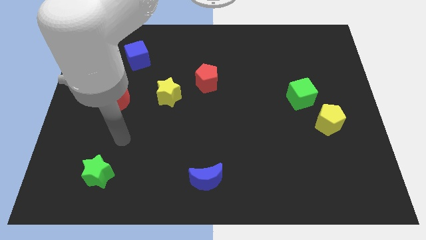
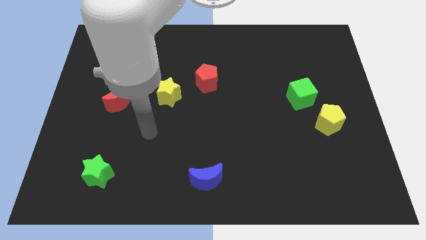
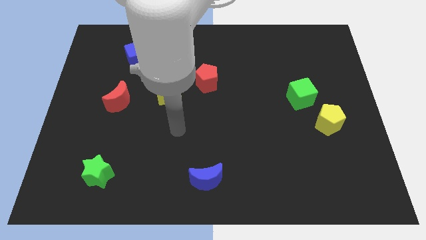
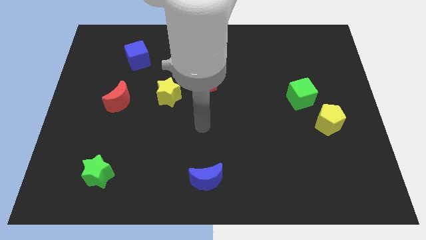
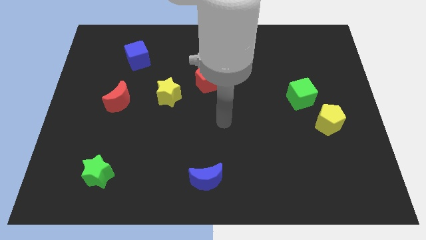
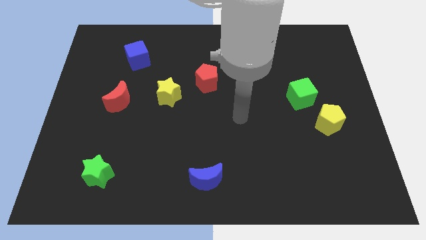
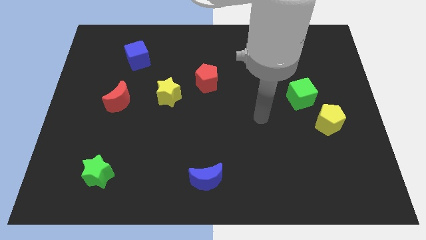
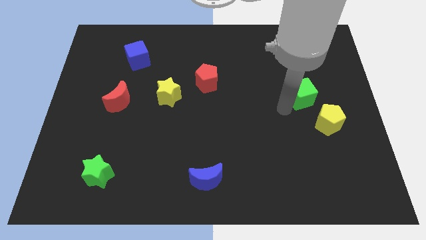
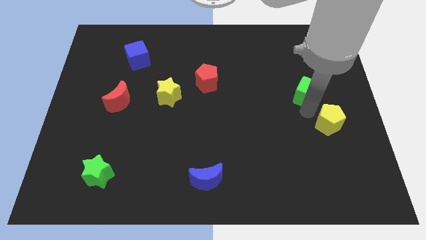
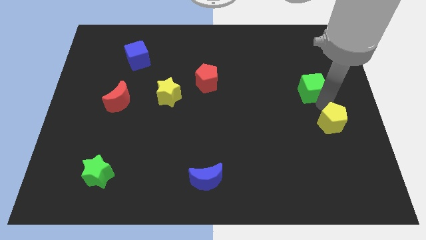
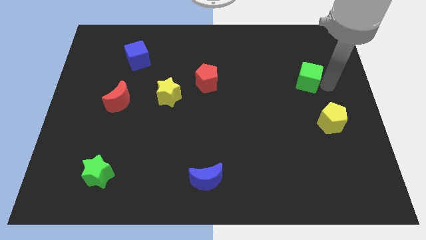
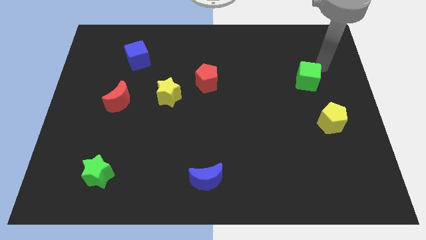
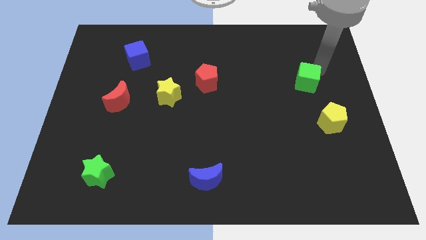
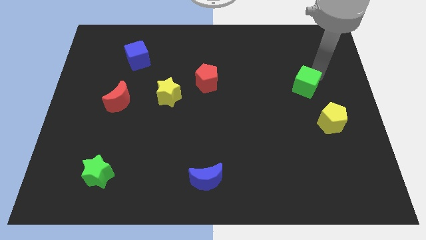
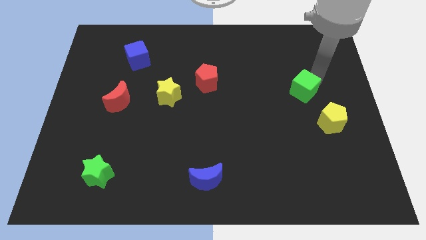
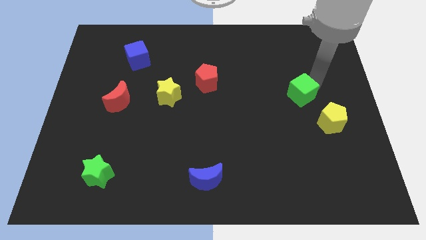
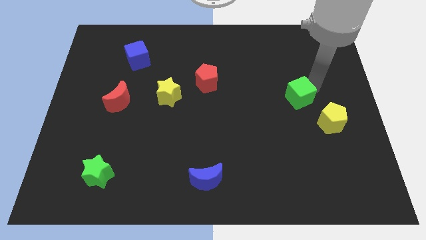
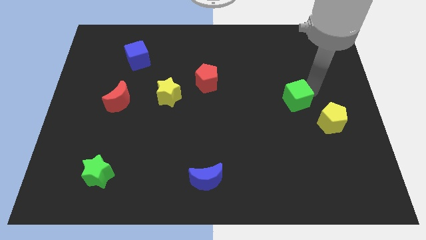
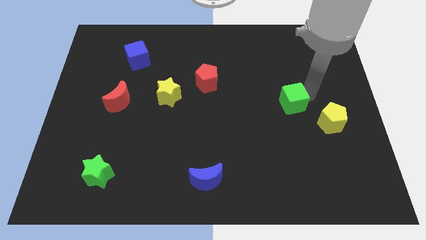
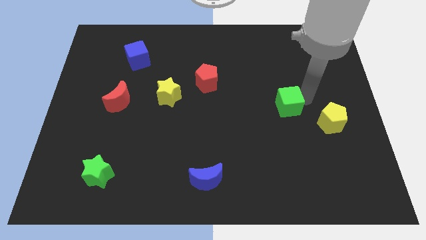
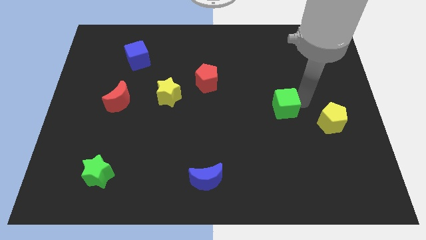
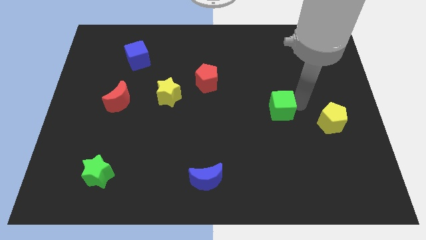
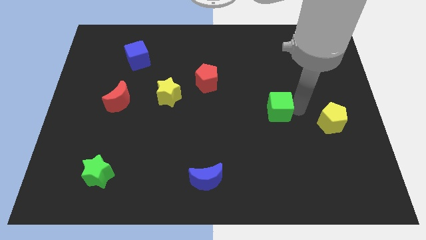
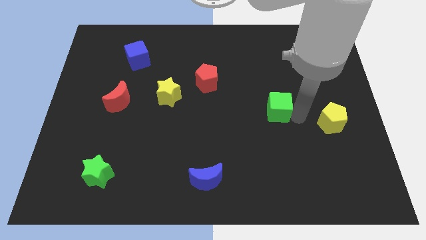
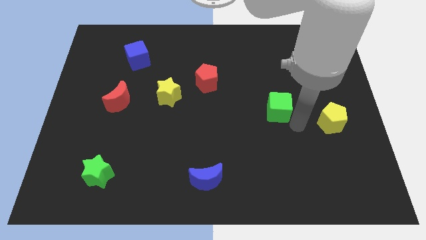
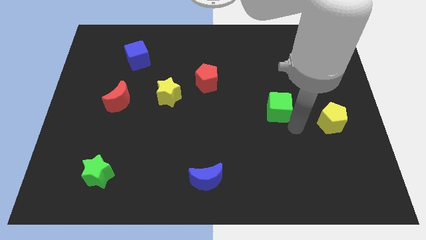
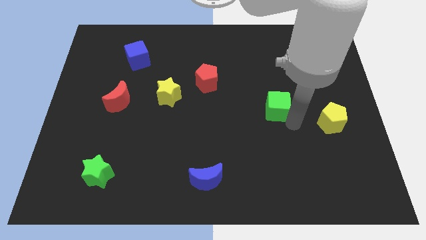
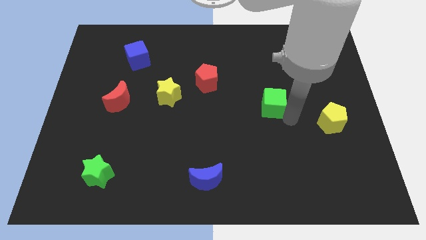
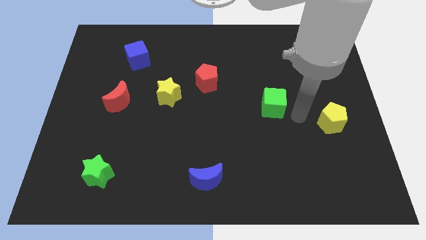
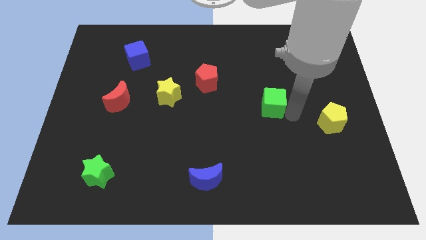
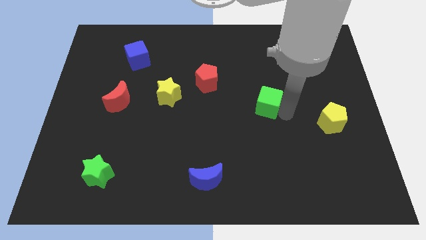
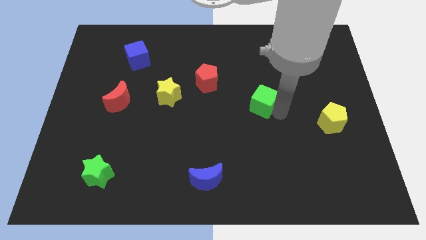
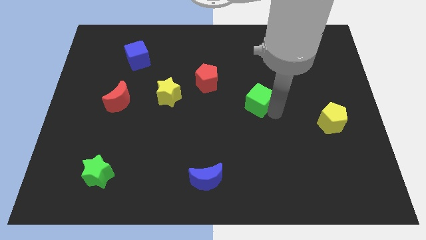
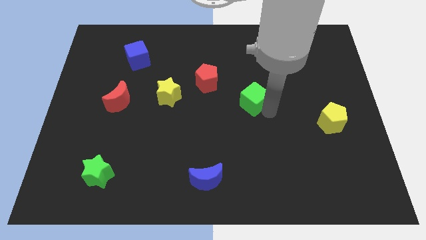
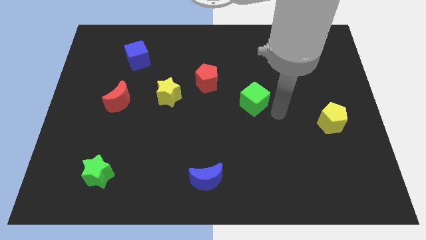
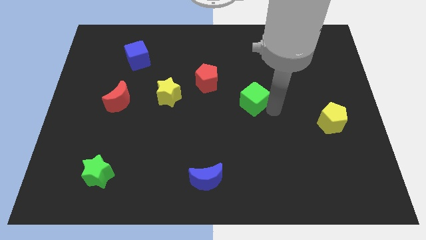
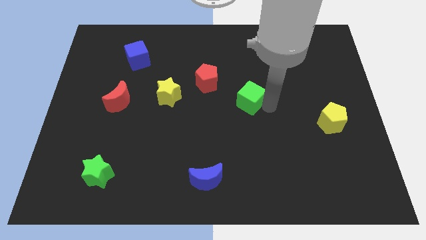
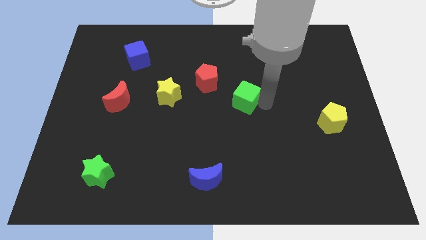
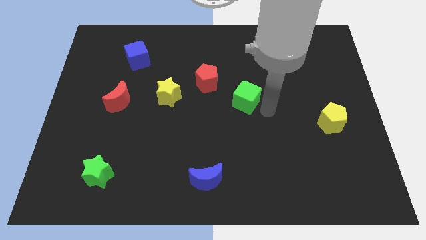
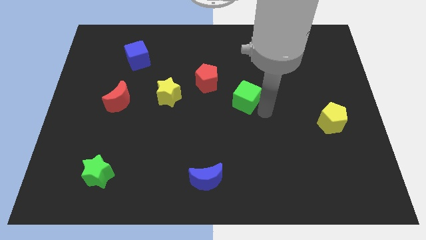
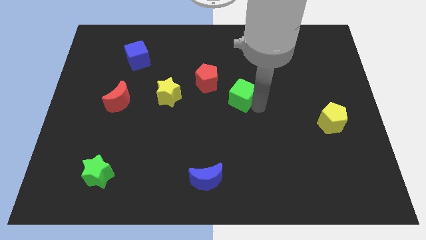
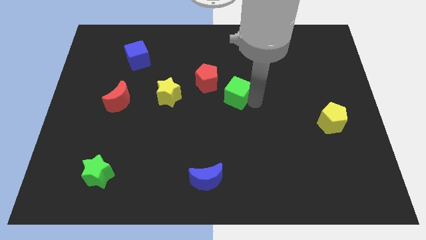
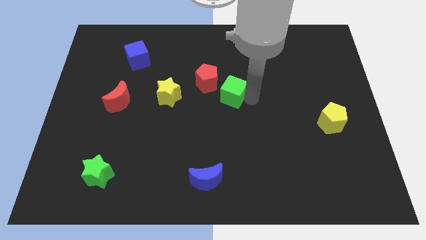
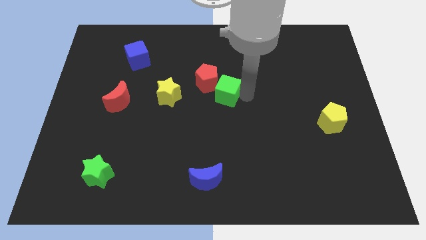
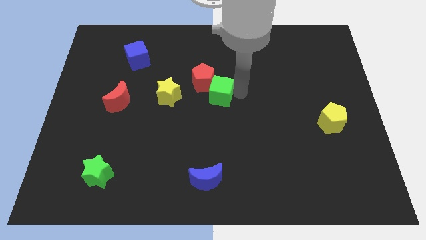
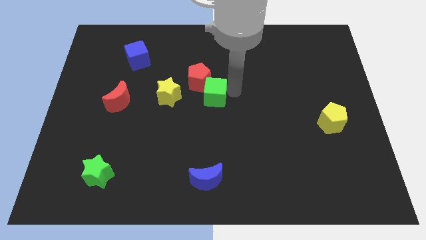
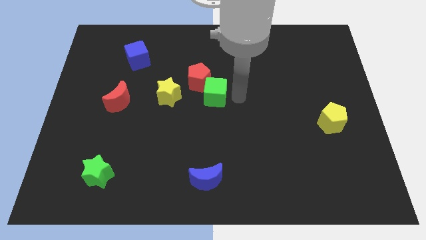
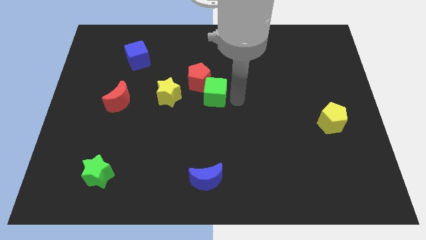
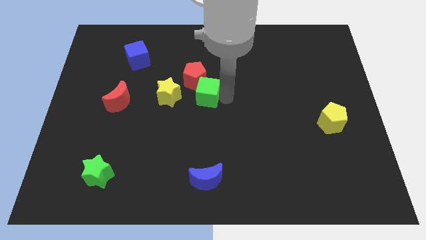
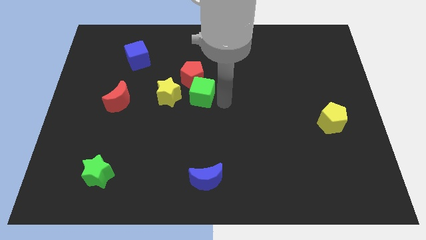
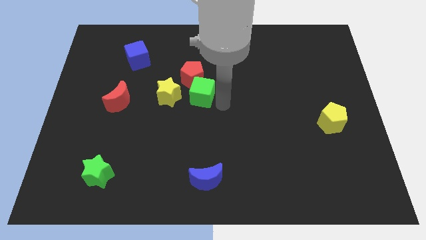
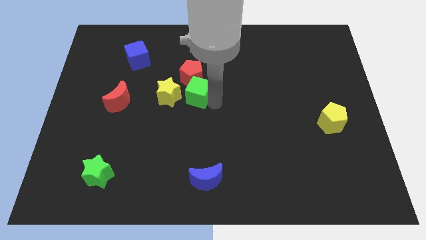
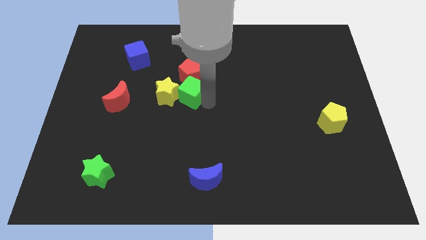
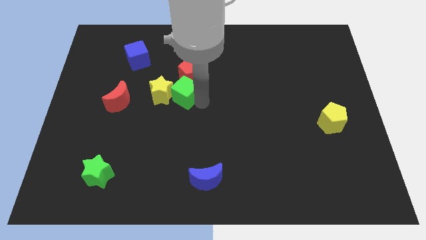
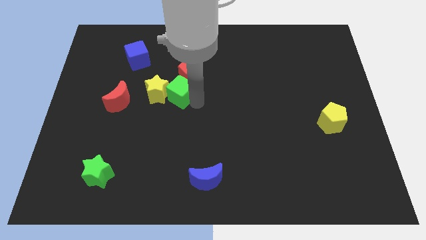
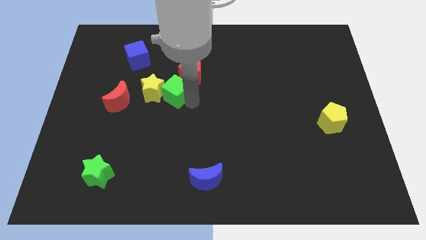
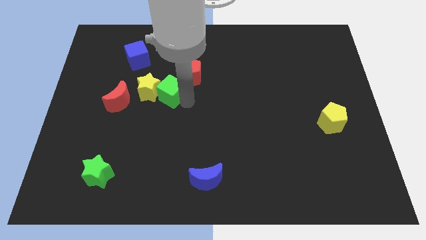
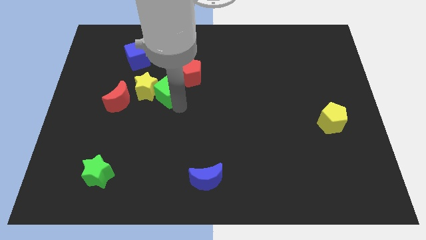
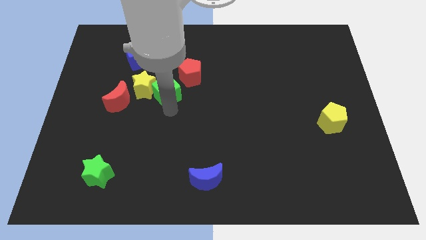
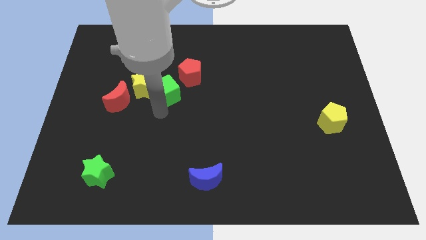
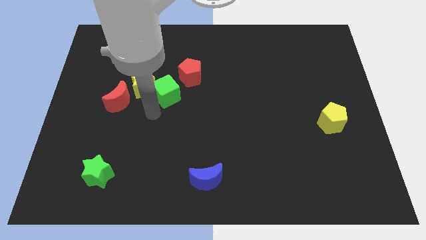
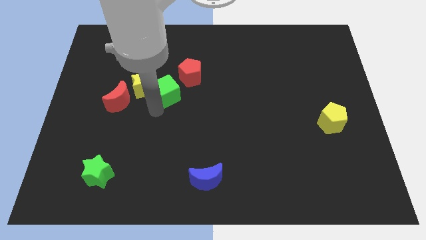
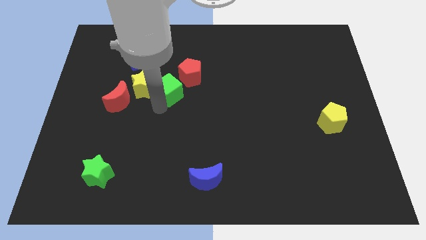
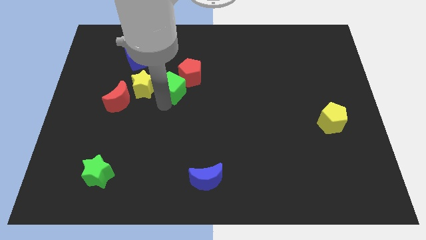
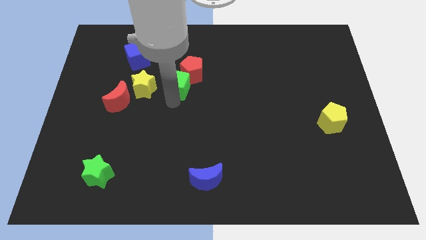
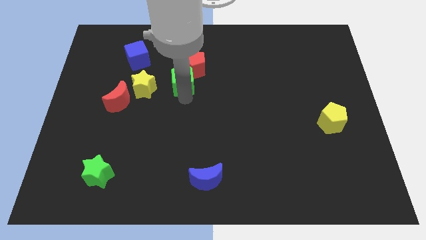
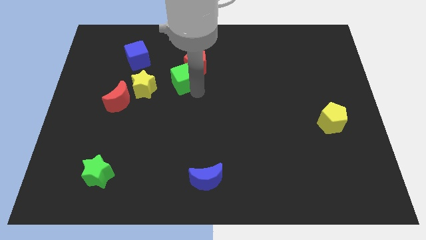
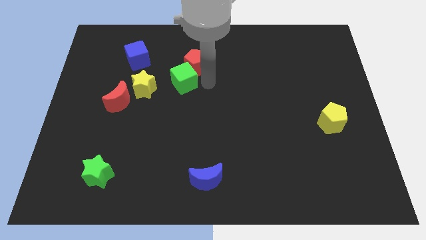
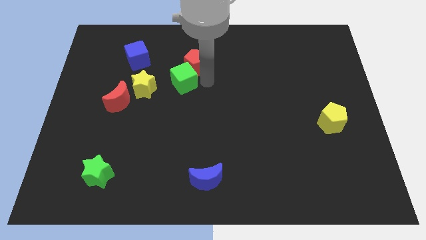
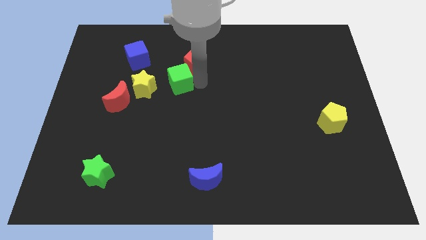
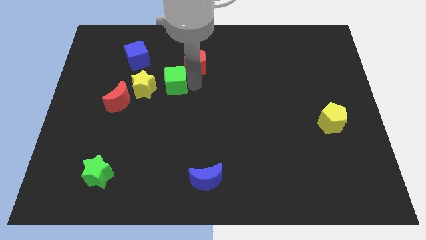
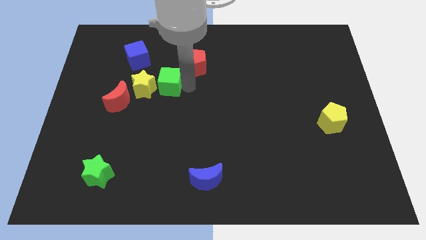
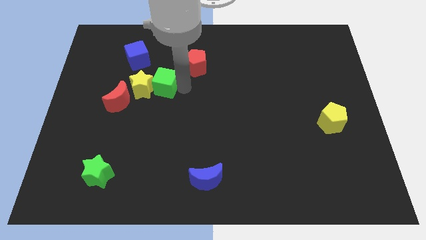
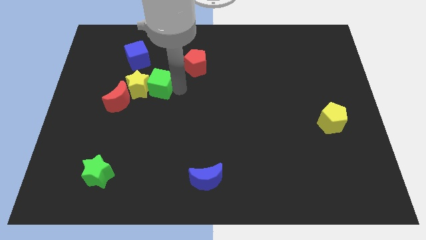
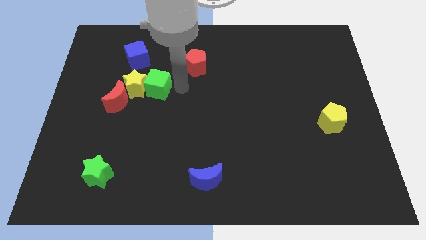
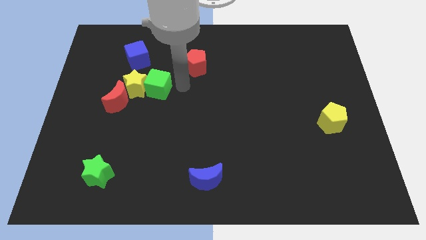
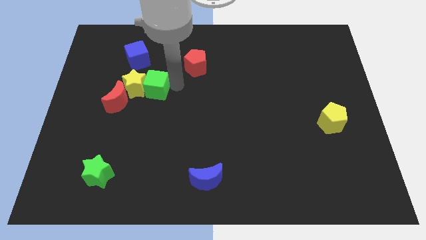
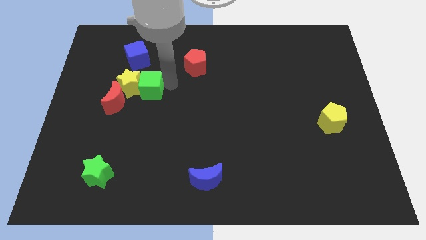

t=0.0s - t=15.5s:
put the green cube to the bottom of the blue cube
